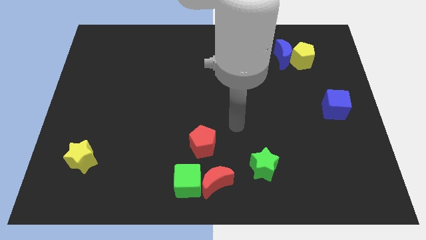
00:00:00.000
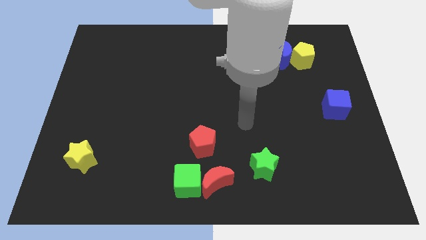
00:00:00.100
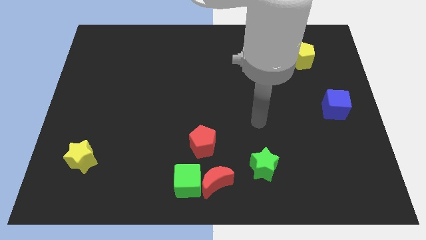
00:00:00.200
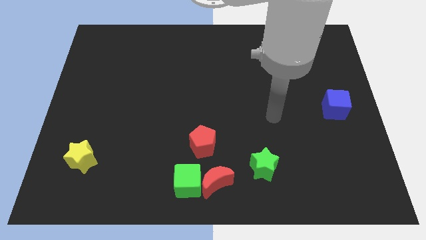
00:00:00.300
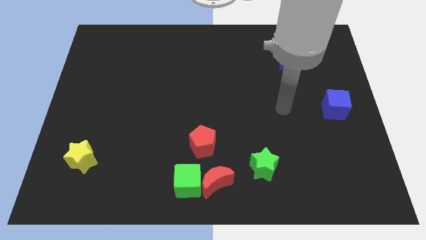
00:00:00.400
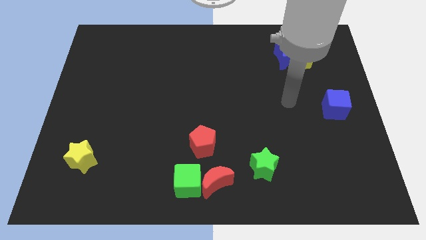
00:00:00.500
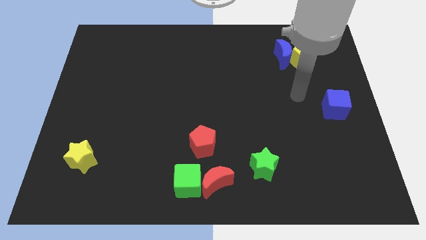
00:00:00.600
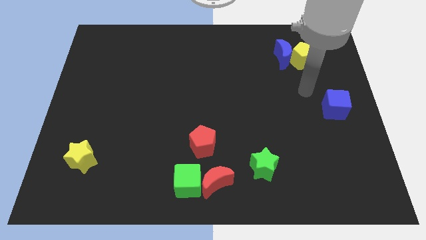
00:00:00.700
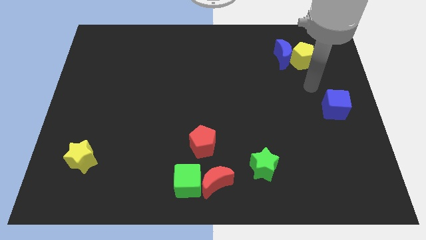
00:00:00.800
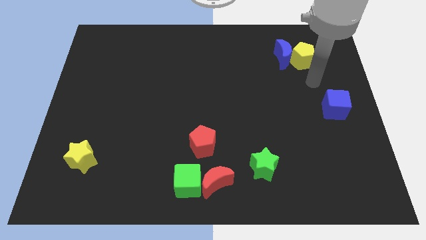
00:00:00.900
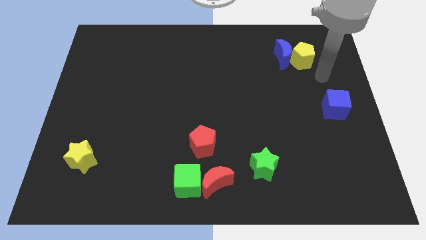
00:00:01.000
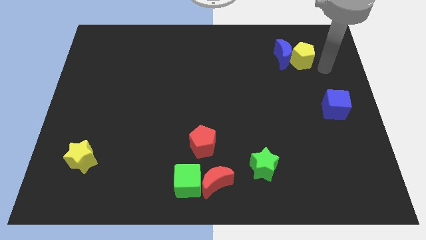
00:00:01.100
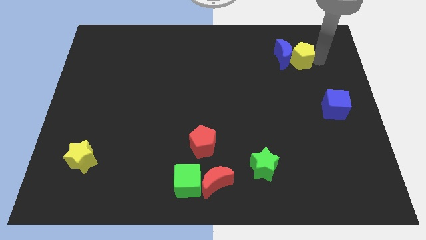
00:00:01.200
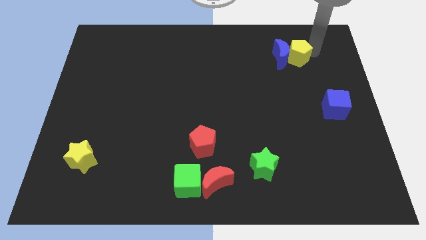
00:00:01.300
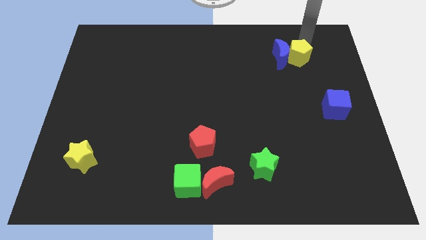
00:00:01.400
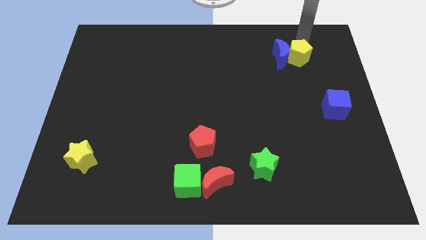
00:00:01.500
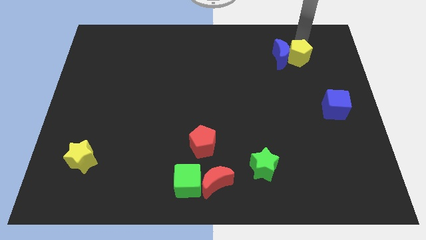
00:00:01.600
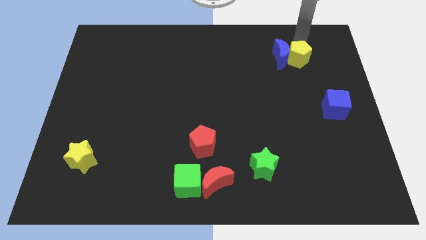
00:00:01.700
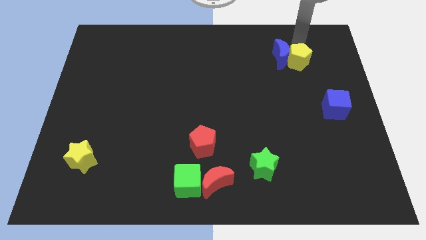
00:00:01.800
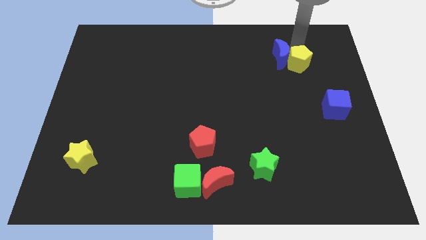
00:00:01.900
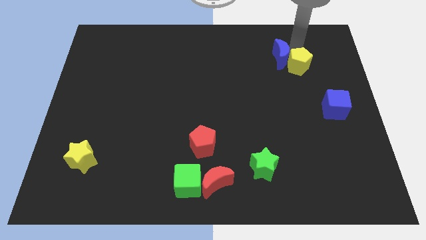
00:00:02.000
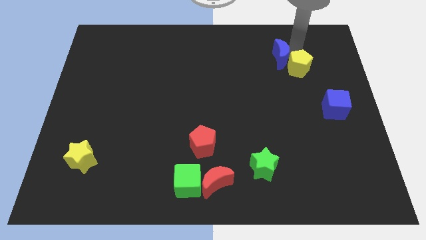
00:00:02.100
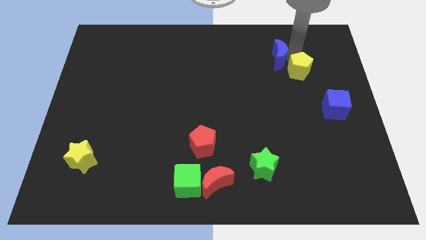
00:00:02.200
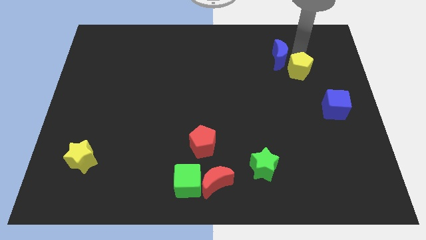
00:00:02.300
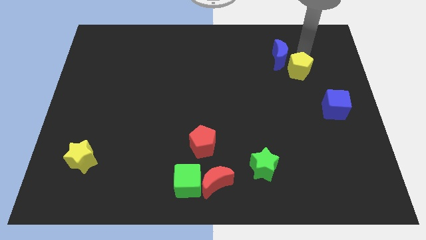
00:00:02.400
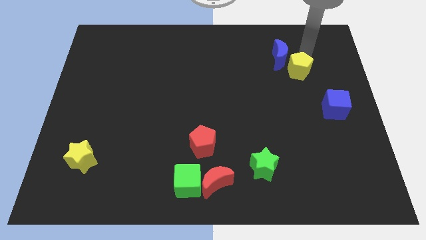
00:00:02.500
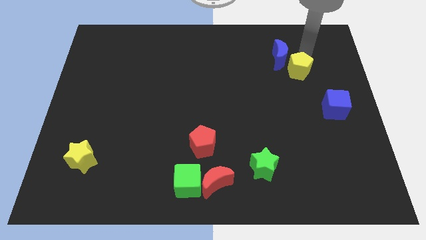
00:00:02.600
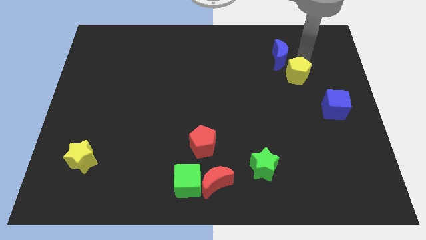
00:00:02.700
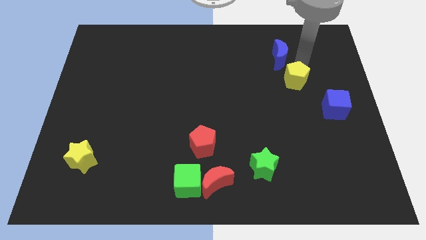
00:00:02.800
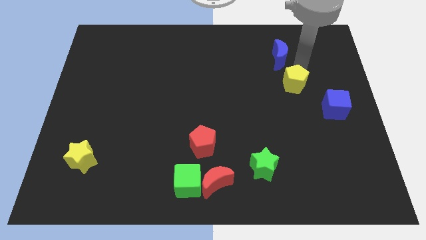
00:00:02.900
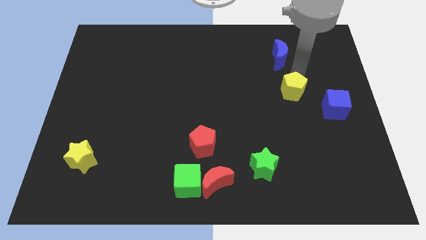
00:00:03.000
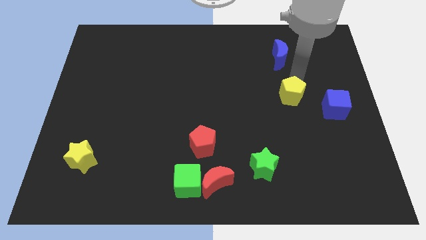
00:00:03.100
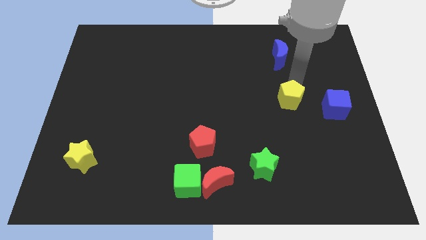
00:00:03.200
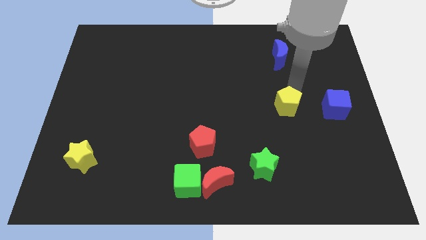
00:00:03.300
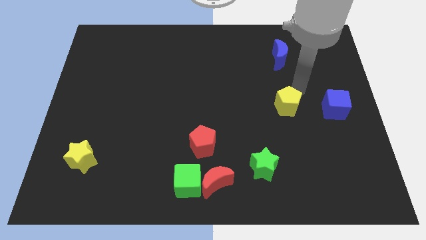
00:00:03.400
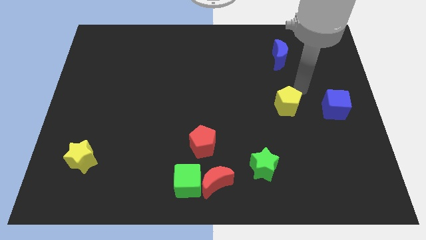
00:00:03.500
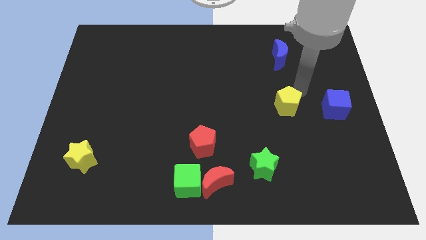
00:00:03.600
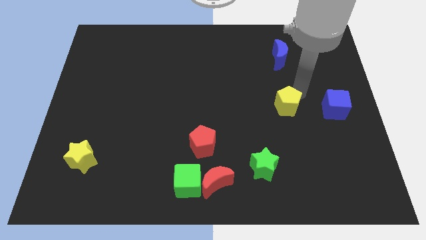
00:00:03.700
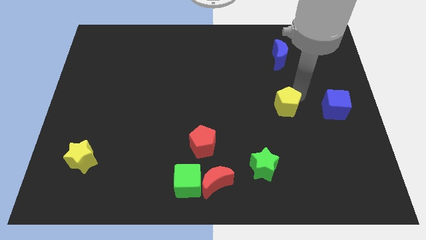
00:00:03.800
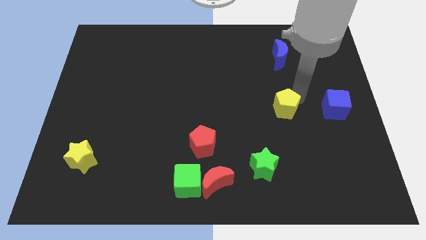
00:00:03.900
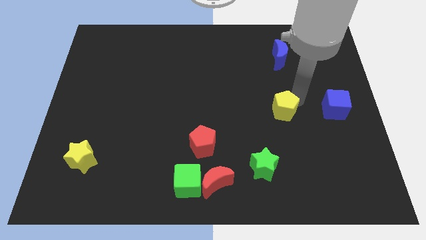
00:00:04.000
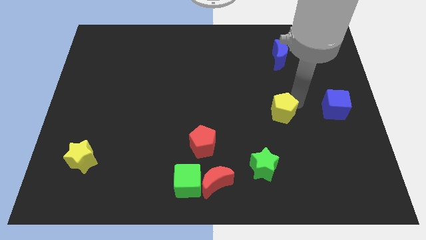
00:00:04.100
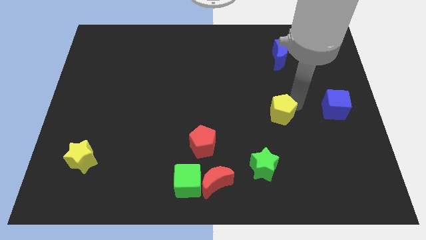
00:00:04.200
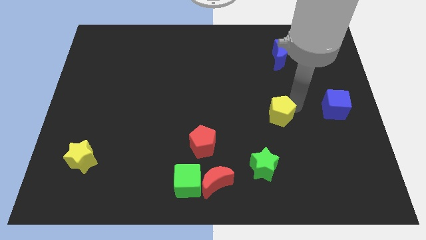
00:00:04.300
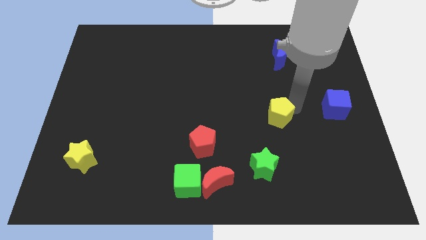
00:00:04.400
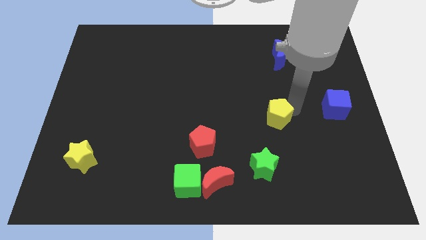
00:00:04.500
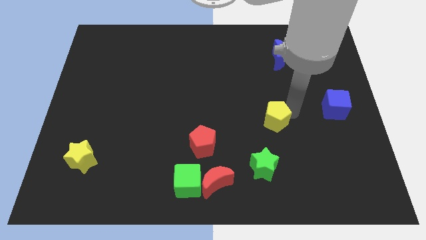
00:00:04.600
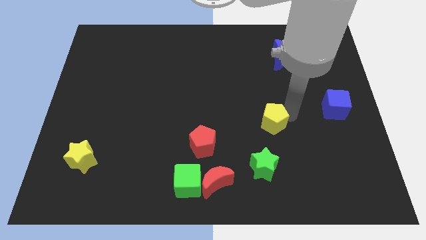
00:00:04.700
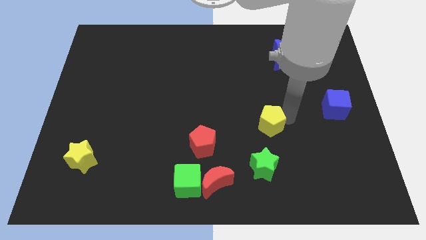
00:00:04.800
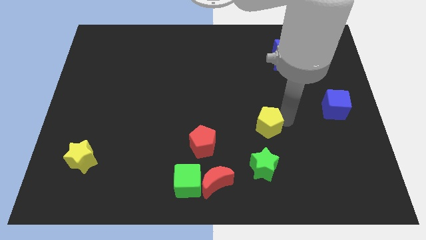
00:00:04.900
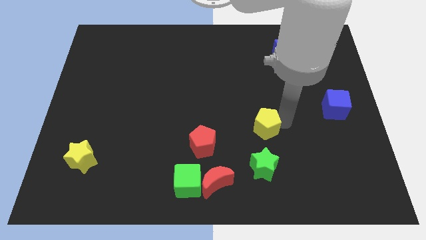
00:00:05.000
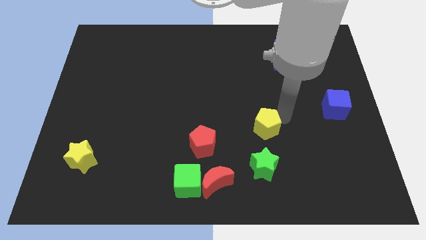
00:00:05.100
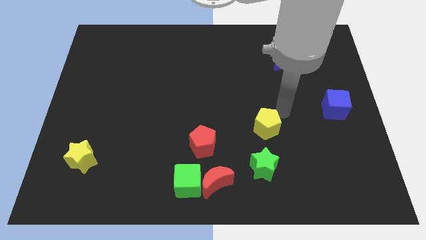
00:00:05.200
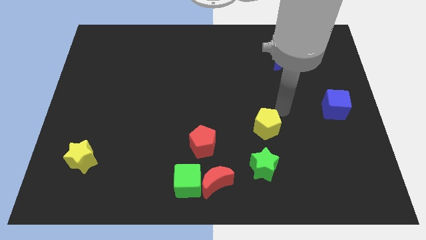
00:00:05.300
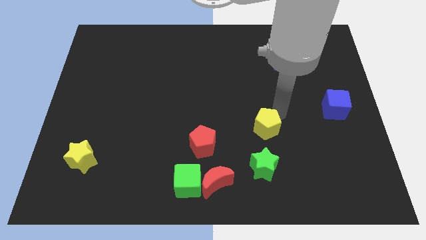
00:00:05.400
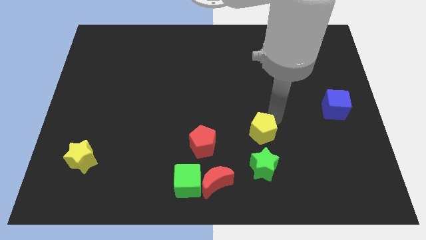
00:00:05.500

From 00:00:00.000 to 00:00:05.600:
move the yellow pentagon to the right side of the red pentagon

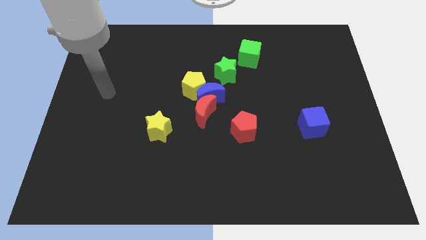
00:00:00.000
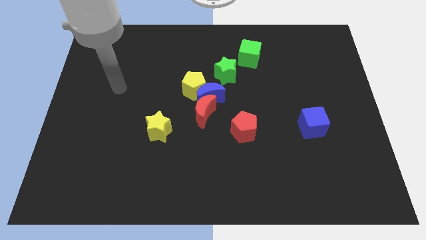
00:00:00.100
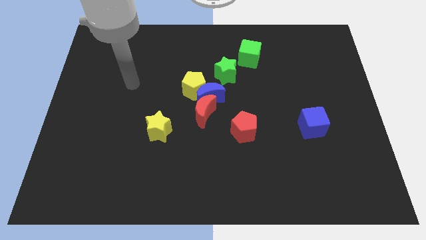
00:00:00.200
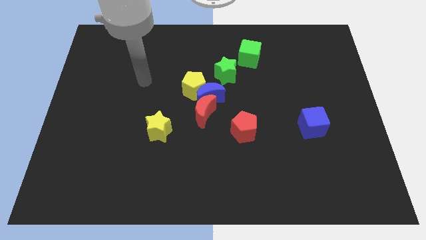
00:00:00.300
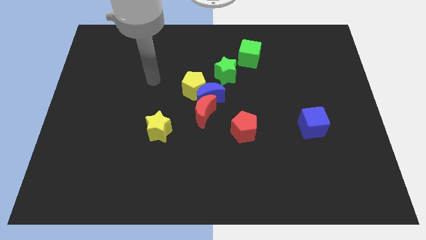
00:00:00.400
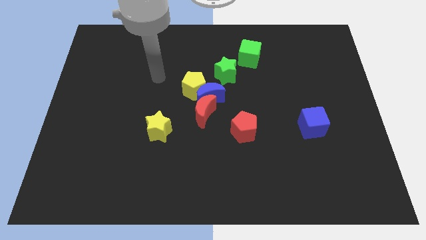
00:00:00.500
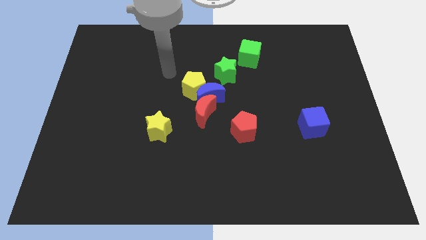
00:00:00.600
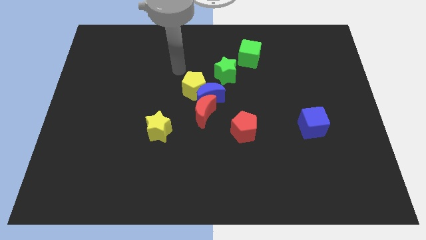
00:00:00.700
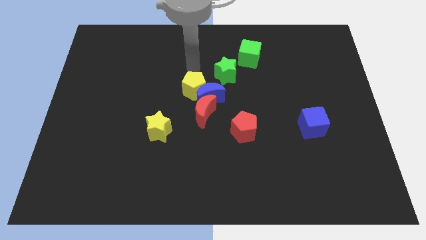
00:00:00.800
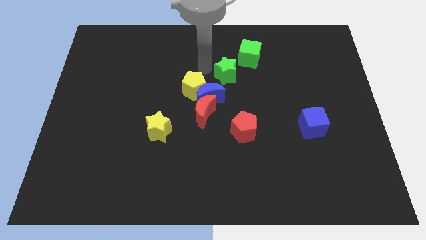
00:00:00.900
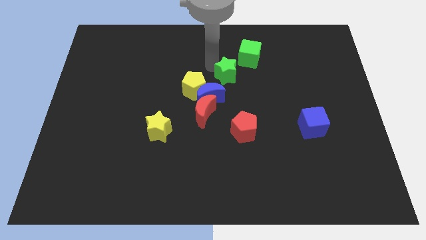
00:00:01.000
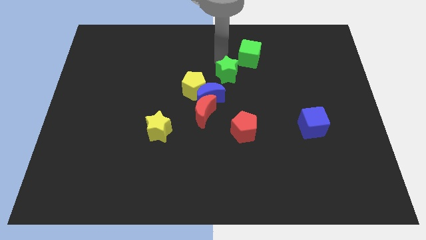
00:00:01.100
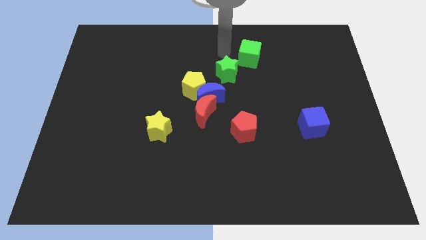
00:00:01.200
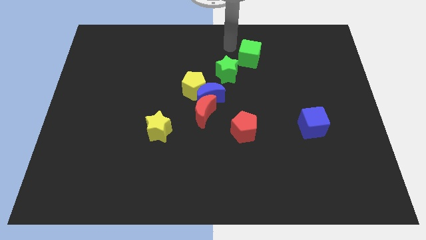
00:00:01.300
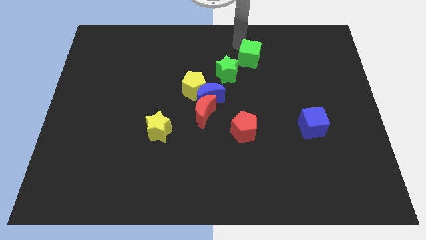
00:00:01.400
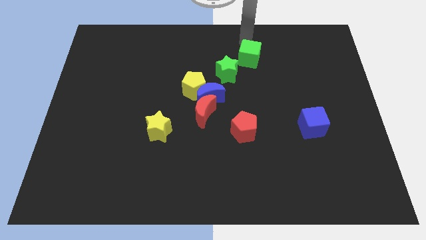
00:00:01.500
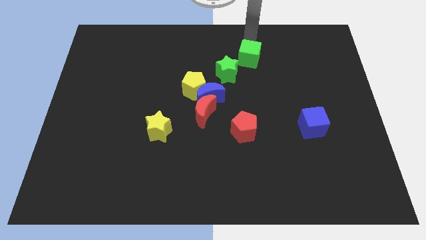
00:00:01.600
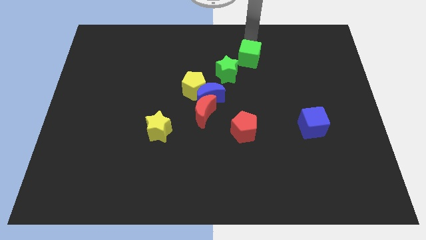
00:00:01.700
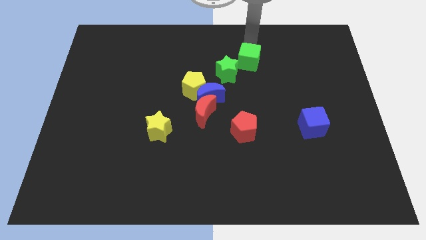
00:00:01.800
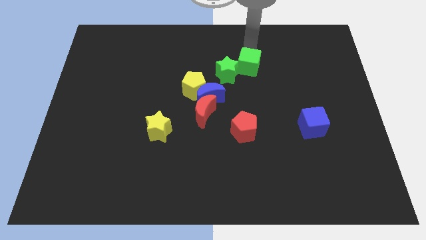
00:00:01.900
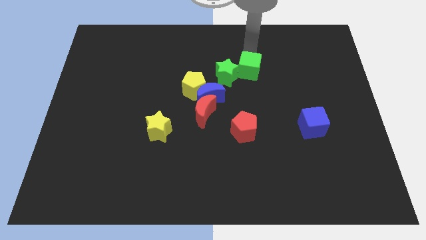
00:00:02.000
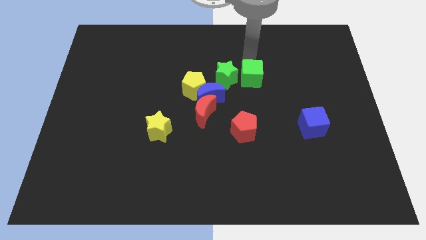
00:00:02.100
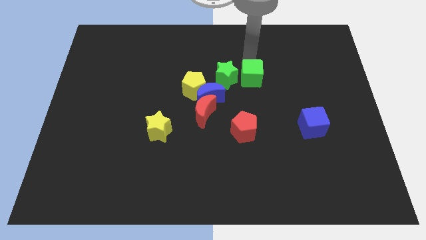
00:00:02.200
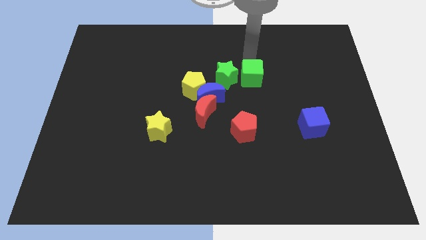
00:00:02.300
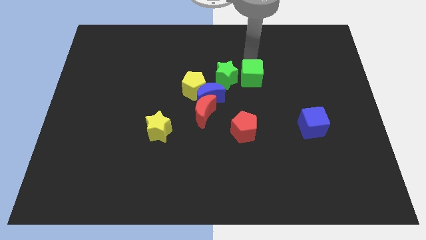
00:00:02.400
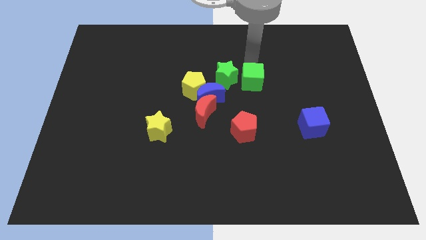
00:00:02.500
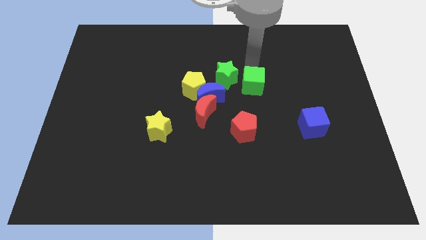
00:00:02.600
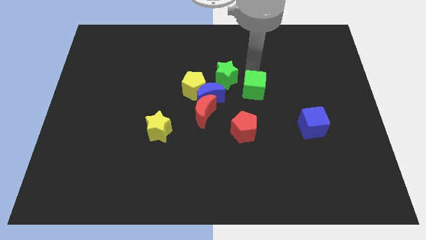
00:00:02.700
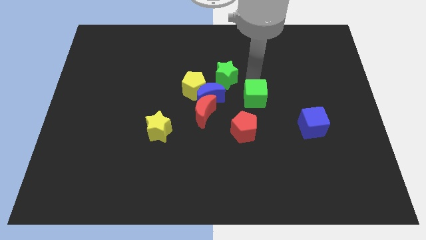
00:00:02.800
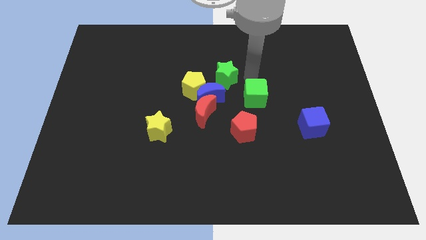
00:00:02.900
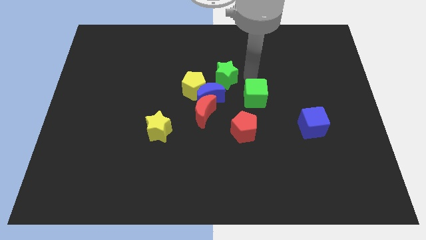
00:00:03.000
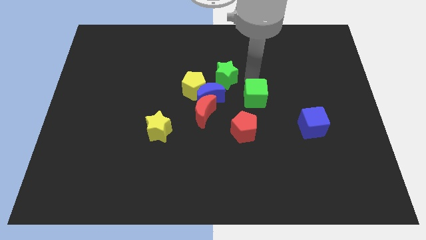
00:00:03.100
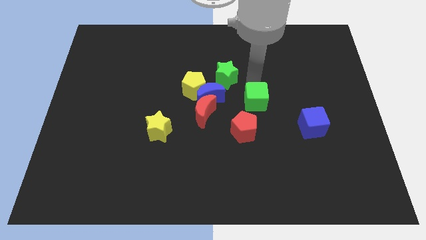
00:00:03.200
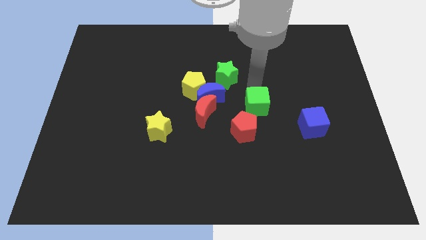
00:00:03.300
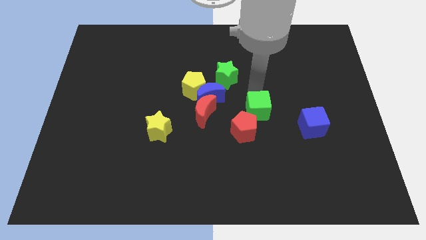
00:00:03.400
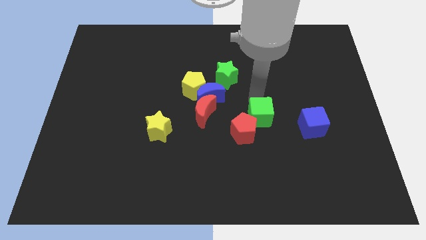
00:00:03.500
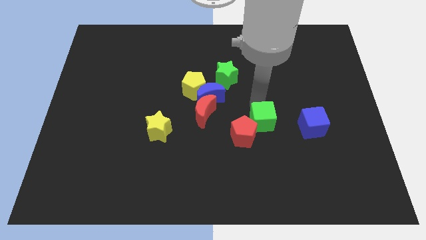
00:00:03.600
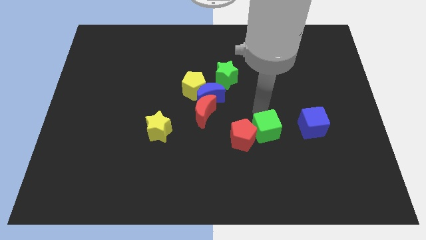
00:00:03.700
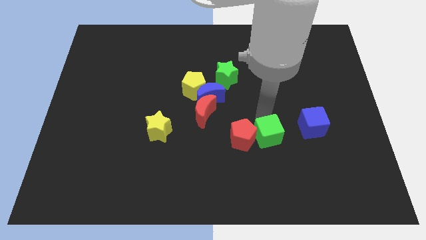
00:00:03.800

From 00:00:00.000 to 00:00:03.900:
move the green cube to the bottom right of the red pentagon
